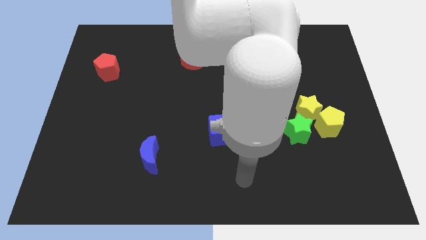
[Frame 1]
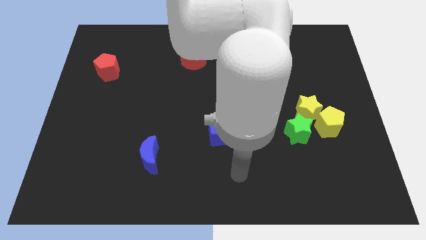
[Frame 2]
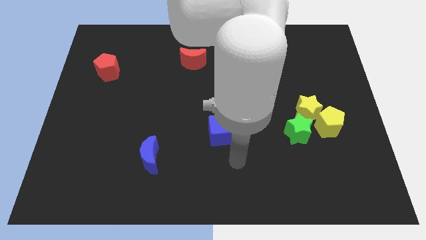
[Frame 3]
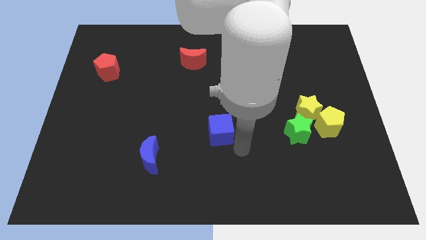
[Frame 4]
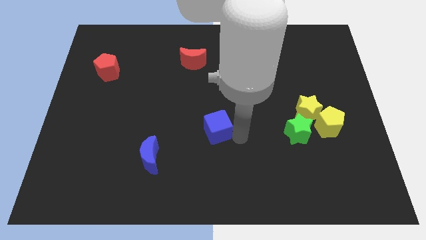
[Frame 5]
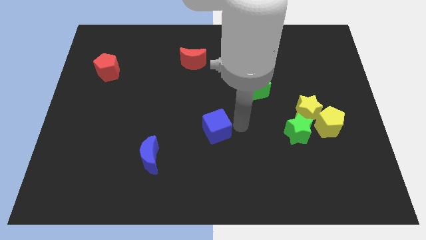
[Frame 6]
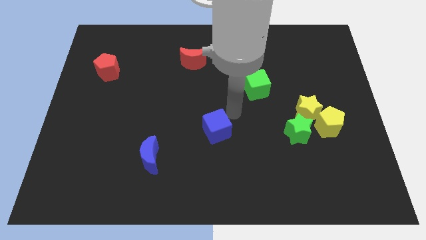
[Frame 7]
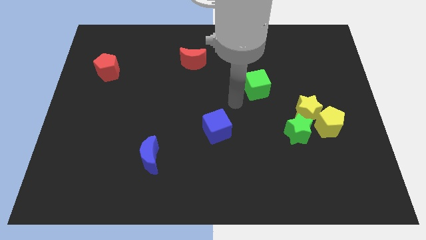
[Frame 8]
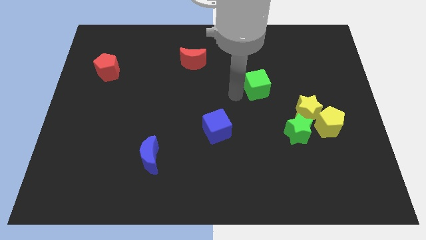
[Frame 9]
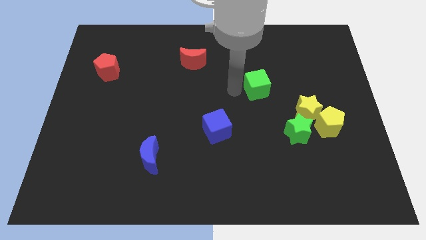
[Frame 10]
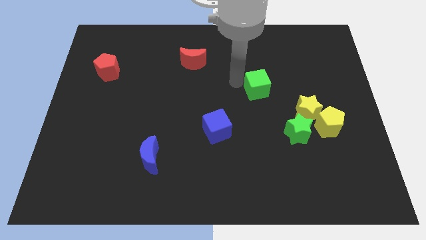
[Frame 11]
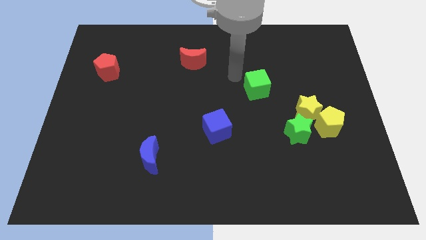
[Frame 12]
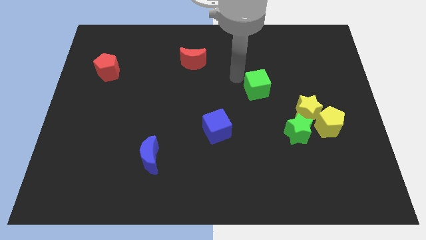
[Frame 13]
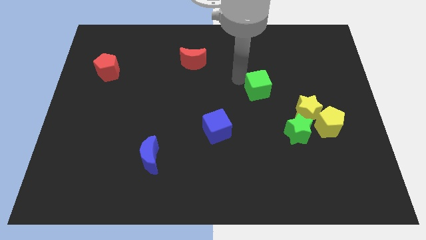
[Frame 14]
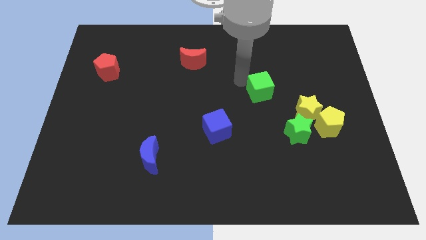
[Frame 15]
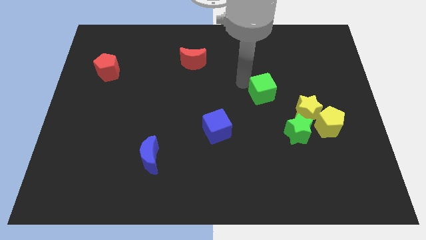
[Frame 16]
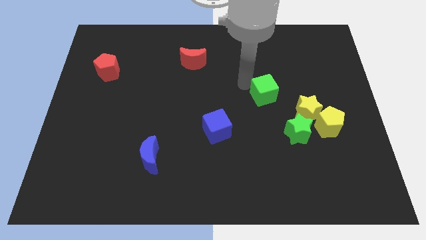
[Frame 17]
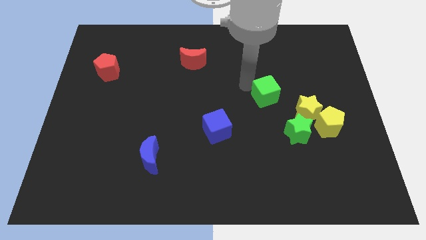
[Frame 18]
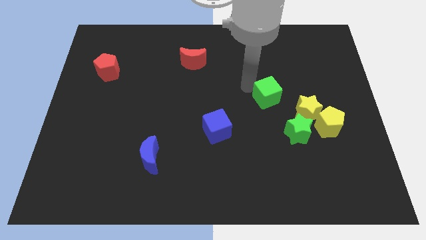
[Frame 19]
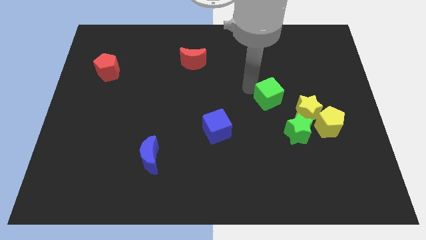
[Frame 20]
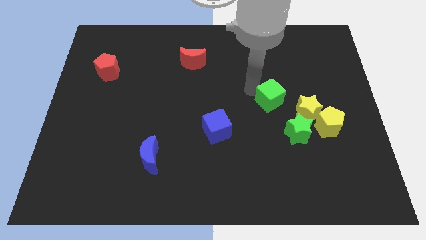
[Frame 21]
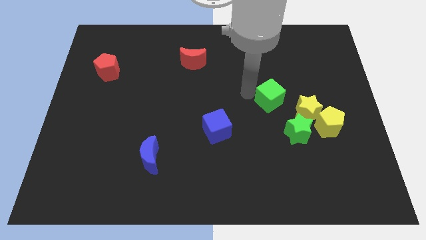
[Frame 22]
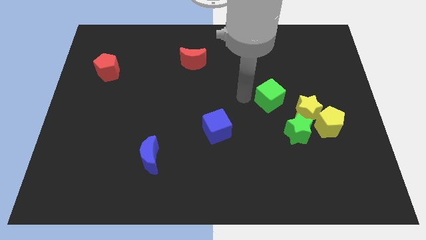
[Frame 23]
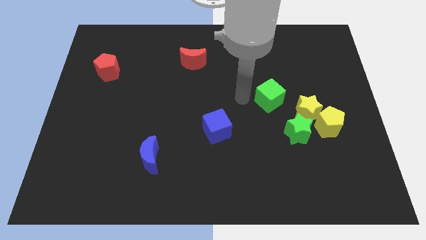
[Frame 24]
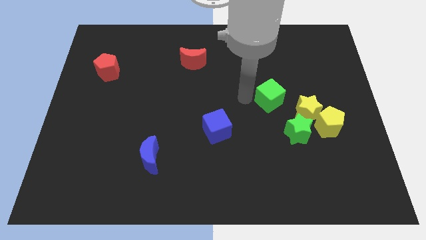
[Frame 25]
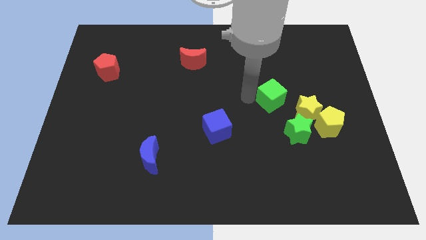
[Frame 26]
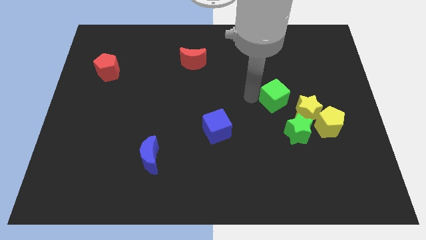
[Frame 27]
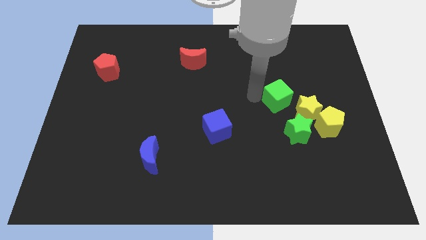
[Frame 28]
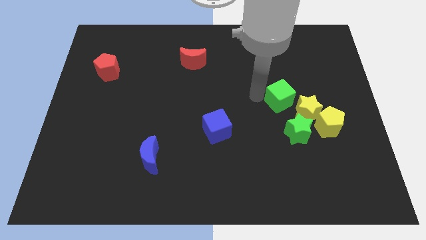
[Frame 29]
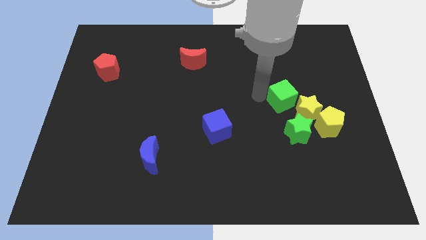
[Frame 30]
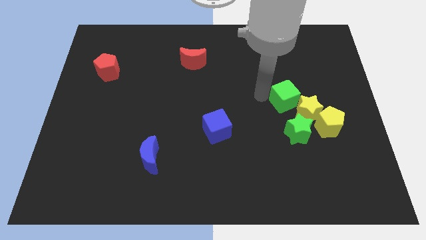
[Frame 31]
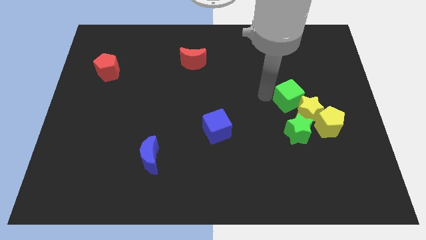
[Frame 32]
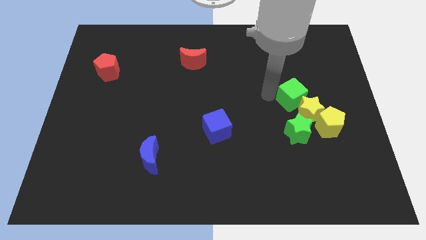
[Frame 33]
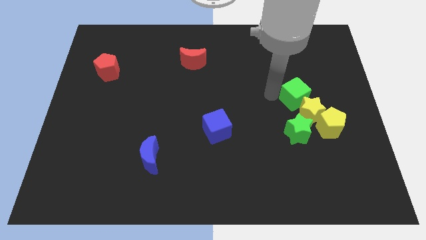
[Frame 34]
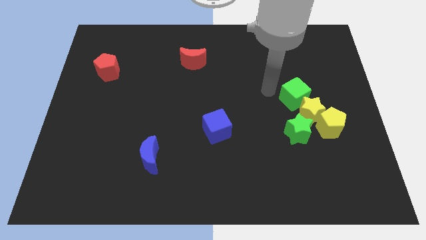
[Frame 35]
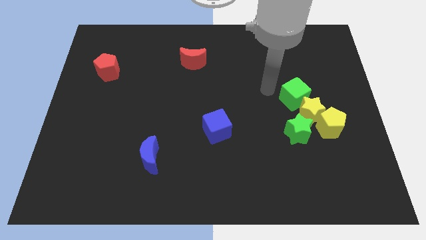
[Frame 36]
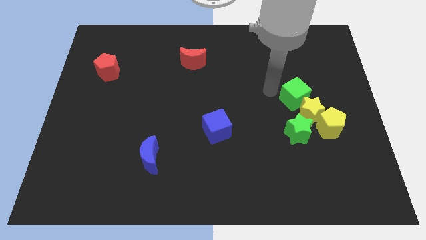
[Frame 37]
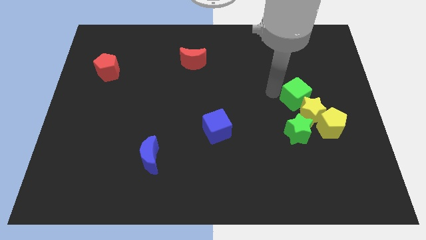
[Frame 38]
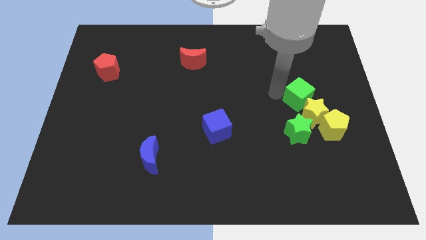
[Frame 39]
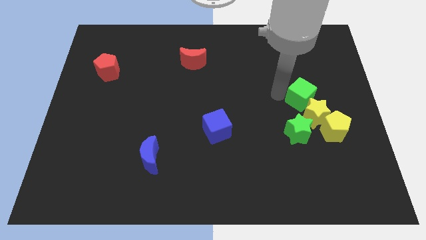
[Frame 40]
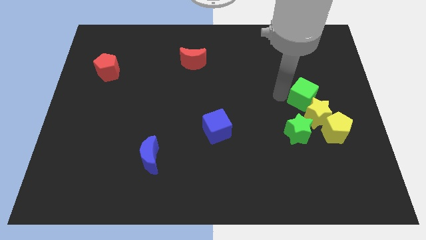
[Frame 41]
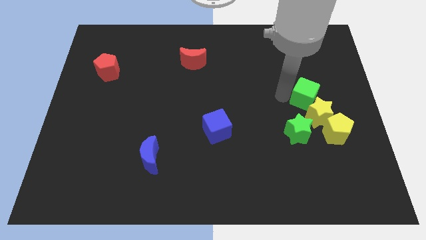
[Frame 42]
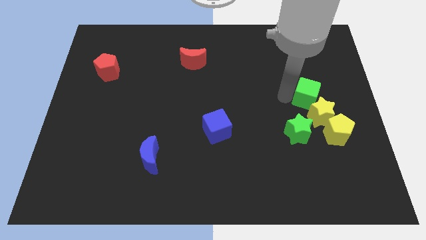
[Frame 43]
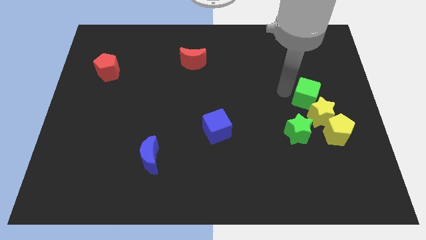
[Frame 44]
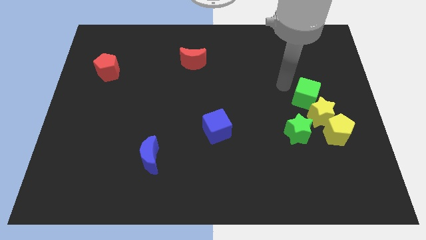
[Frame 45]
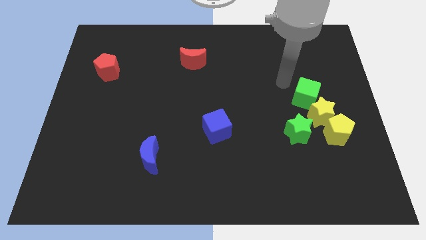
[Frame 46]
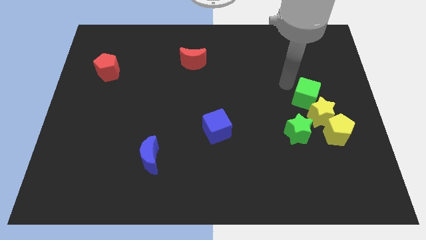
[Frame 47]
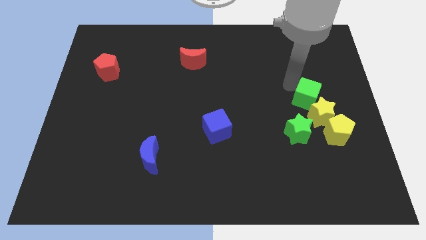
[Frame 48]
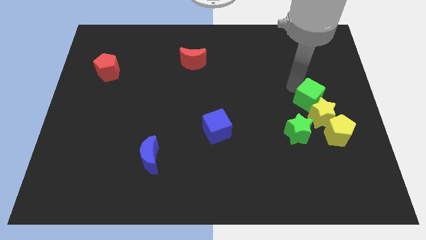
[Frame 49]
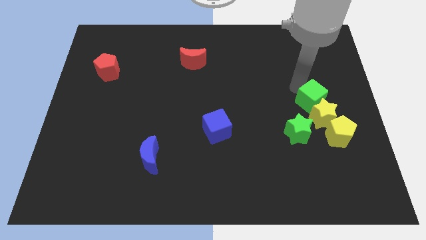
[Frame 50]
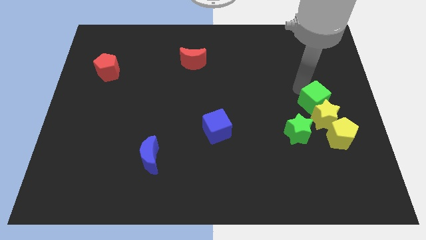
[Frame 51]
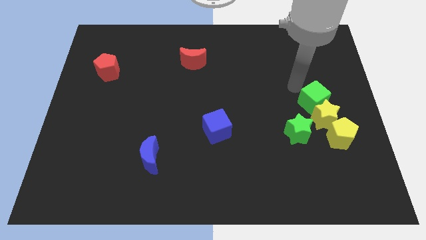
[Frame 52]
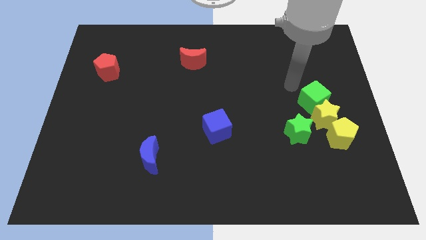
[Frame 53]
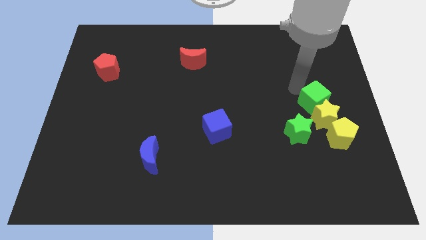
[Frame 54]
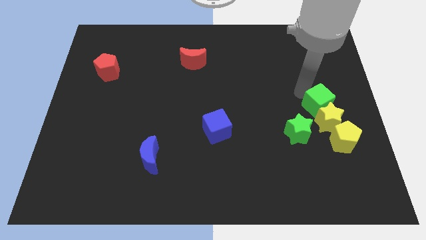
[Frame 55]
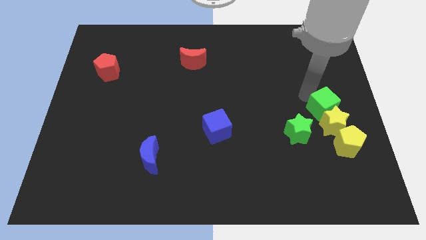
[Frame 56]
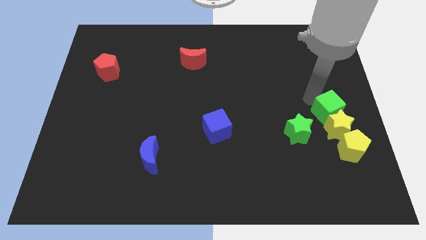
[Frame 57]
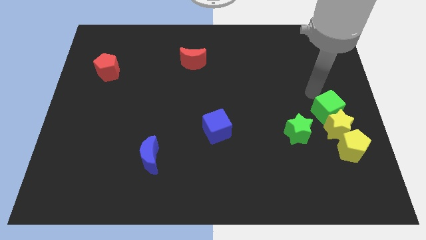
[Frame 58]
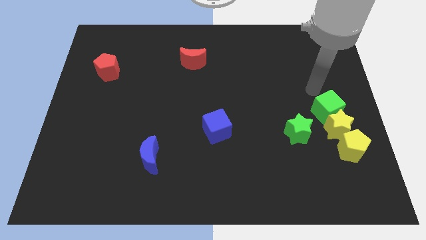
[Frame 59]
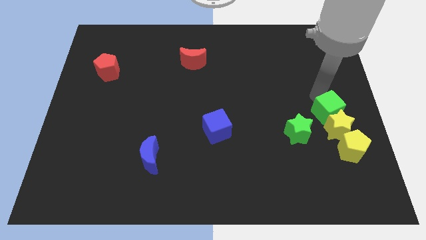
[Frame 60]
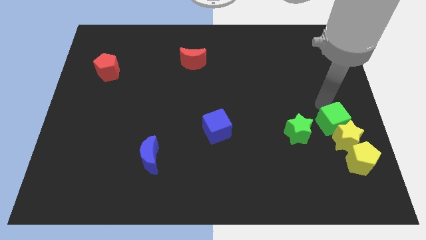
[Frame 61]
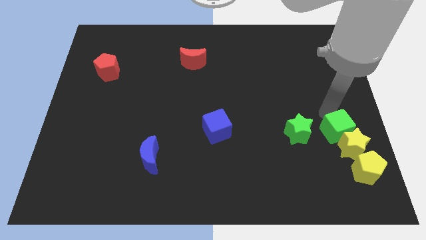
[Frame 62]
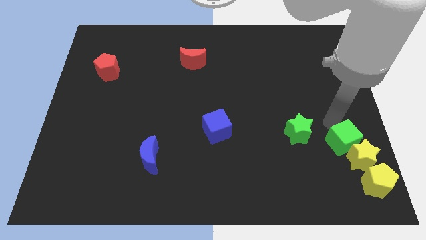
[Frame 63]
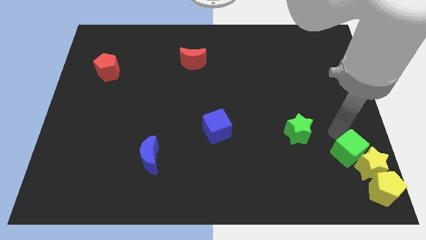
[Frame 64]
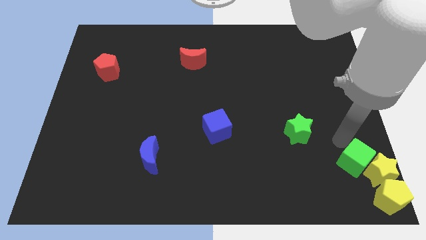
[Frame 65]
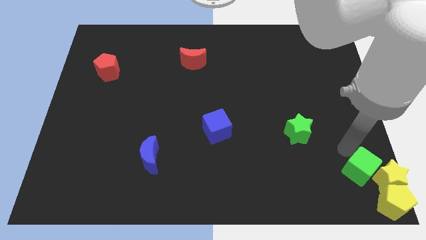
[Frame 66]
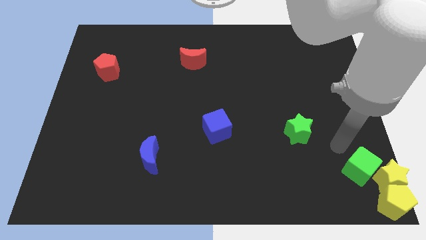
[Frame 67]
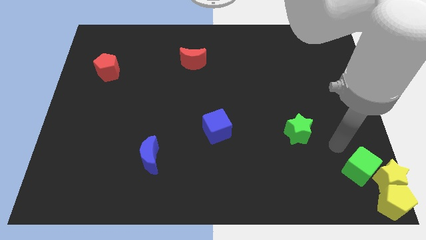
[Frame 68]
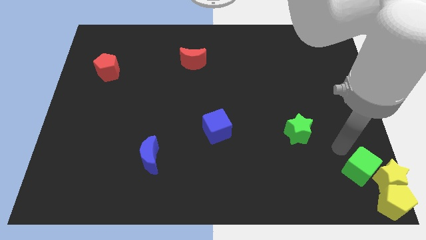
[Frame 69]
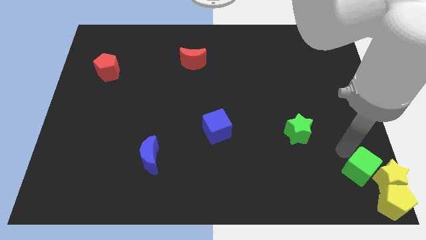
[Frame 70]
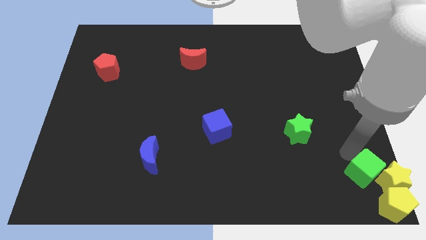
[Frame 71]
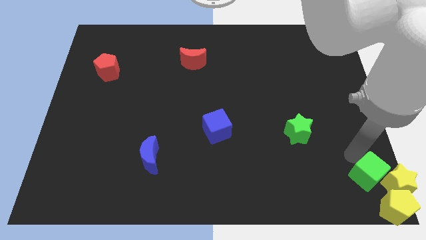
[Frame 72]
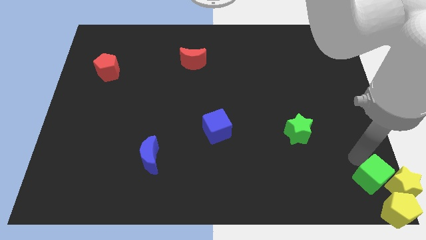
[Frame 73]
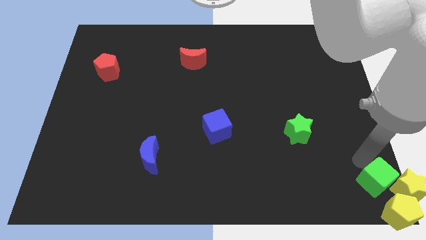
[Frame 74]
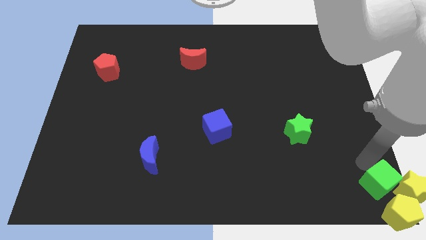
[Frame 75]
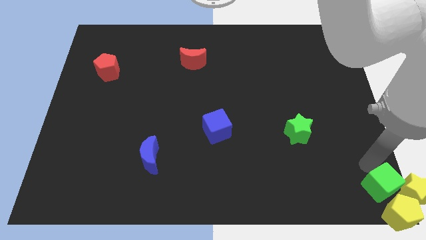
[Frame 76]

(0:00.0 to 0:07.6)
put the green cube next to the yellow pentagon

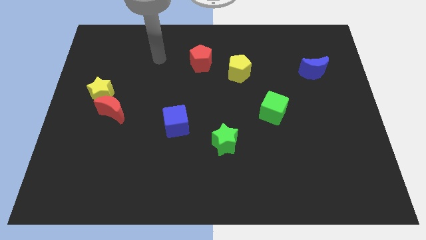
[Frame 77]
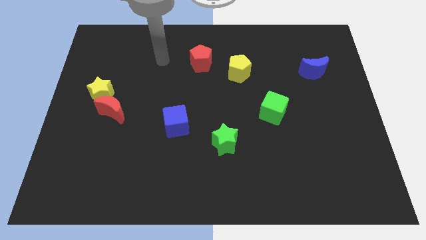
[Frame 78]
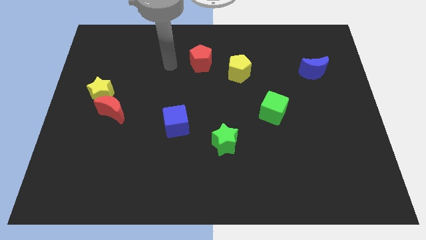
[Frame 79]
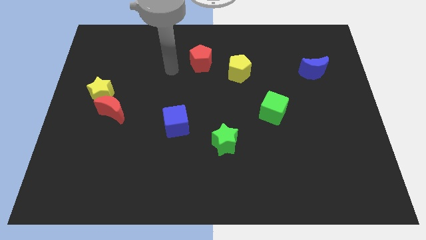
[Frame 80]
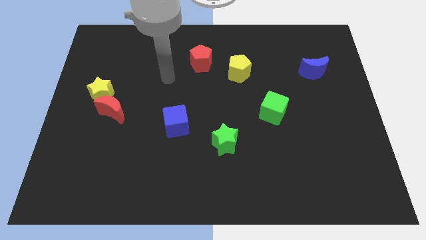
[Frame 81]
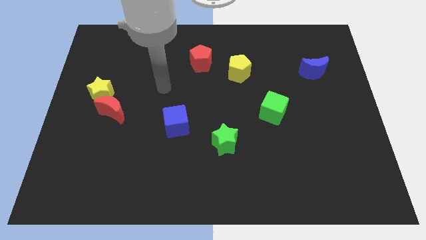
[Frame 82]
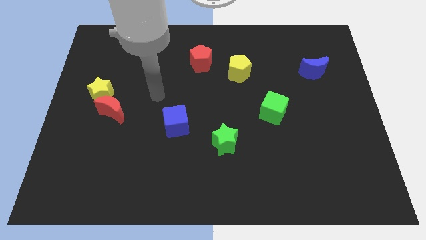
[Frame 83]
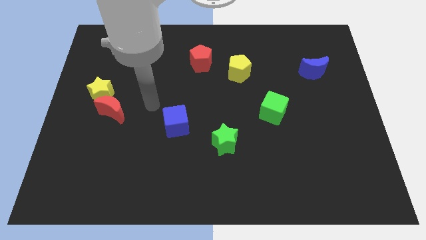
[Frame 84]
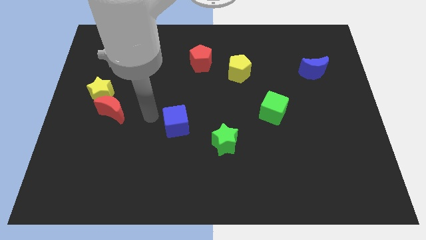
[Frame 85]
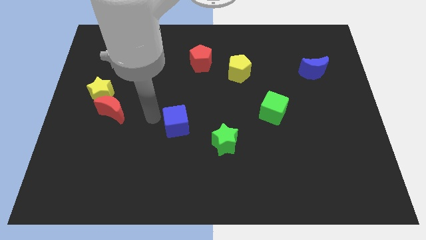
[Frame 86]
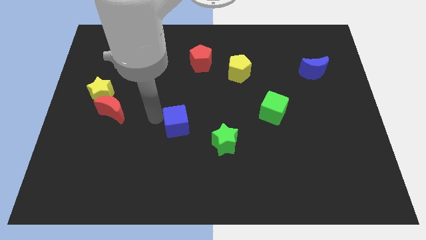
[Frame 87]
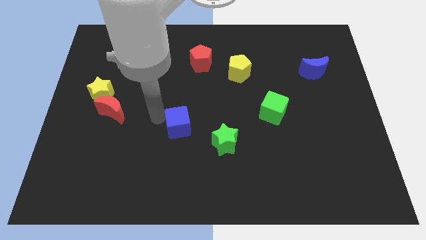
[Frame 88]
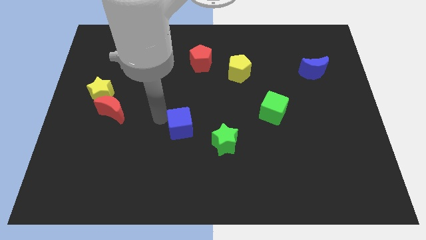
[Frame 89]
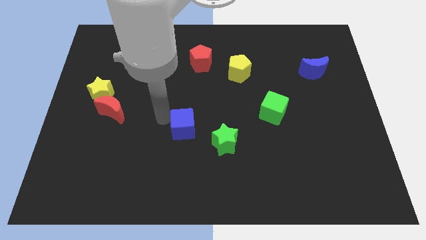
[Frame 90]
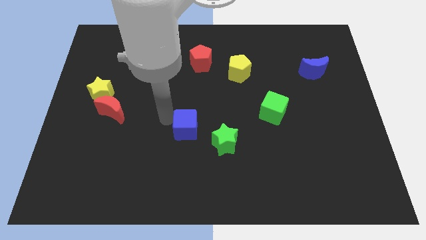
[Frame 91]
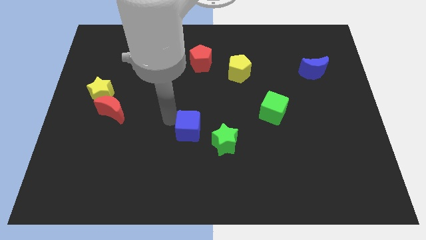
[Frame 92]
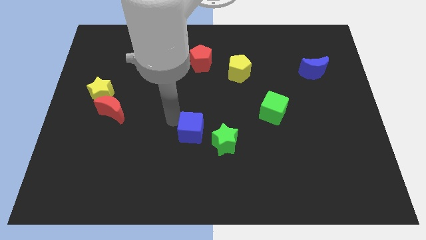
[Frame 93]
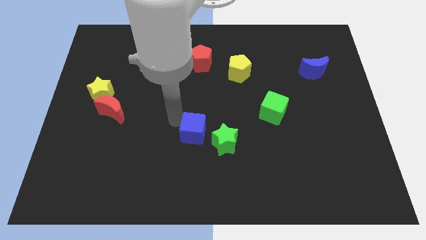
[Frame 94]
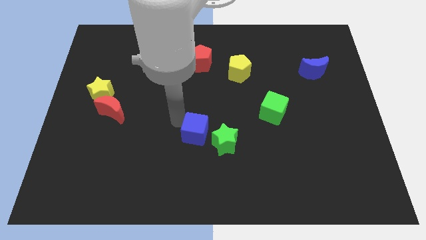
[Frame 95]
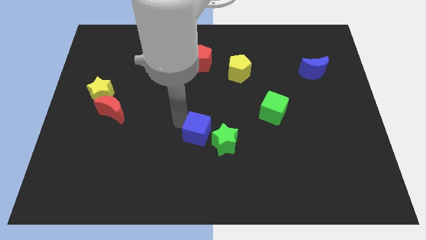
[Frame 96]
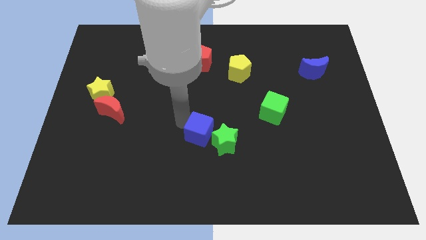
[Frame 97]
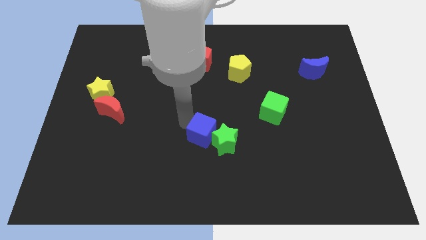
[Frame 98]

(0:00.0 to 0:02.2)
push the blue cube towards the green star
